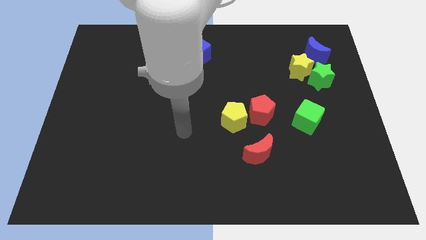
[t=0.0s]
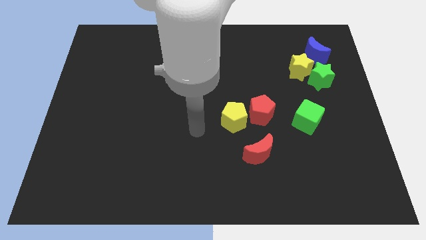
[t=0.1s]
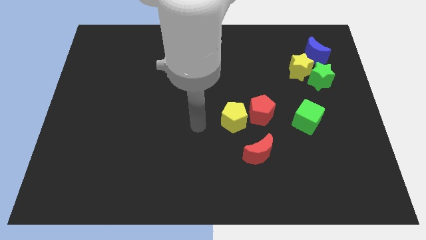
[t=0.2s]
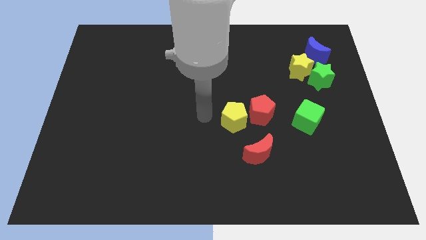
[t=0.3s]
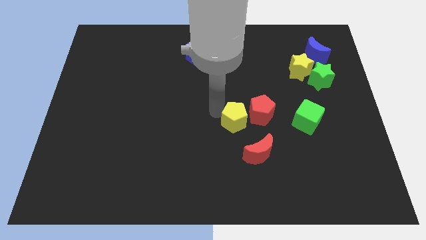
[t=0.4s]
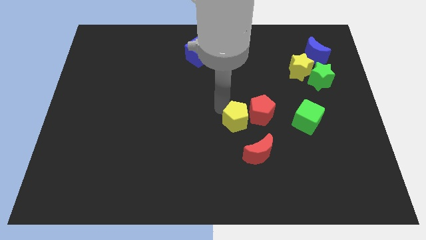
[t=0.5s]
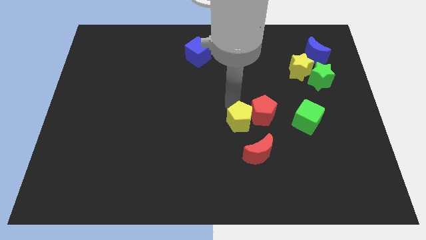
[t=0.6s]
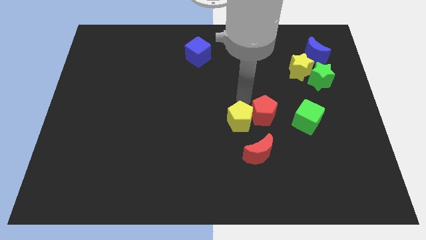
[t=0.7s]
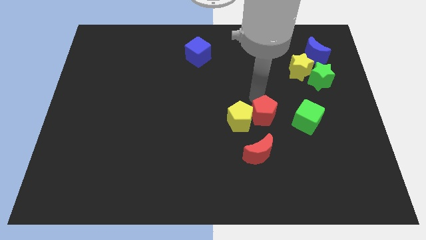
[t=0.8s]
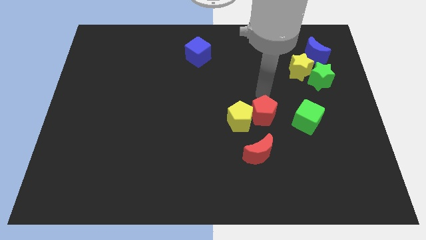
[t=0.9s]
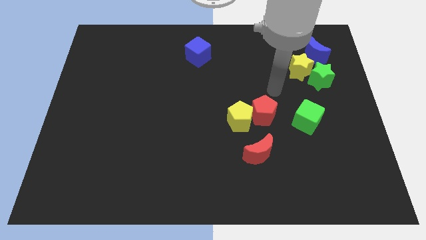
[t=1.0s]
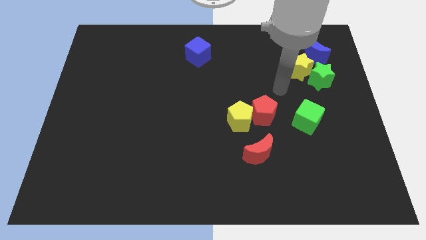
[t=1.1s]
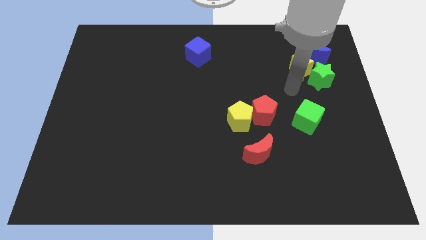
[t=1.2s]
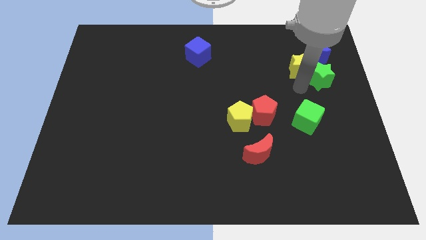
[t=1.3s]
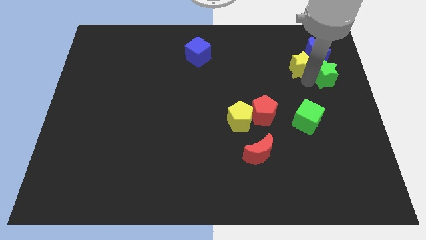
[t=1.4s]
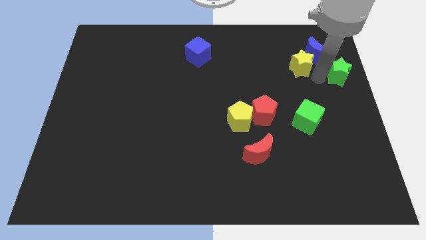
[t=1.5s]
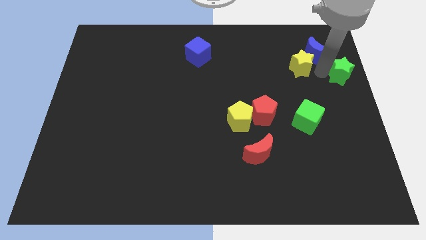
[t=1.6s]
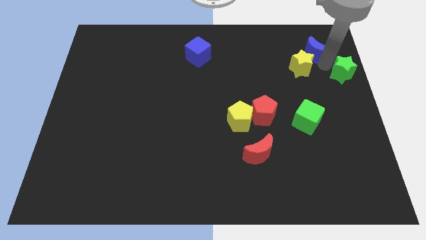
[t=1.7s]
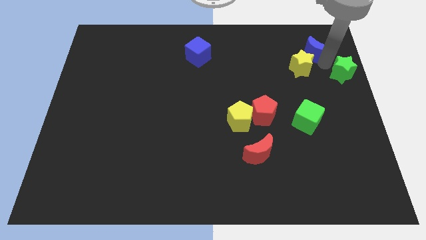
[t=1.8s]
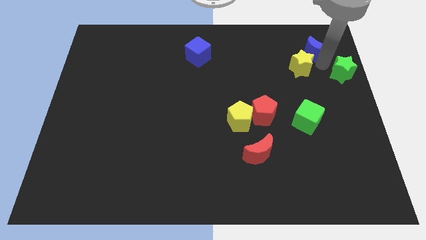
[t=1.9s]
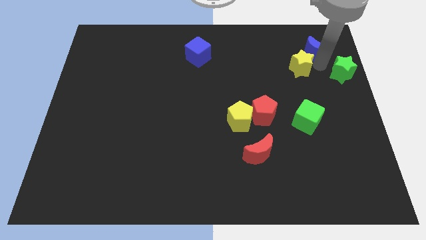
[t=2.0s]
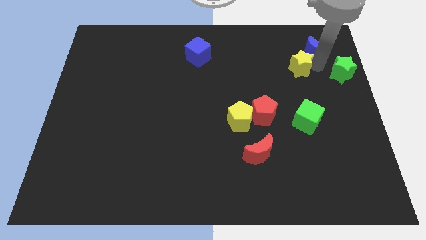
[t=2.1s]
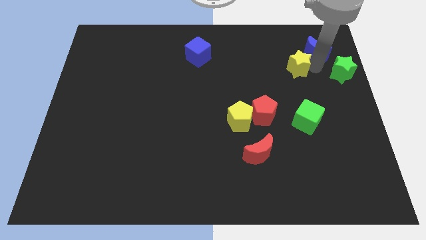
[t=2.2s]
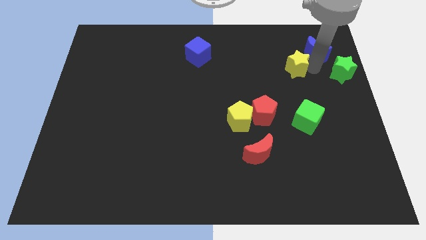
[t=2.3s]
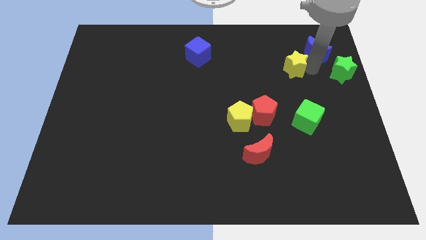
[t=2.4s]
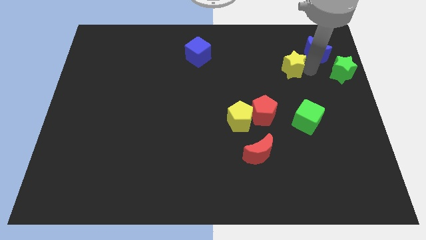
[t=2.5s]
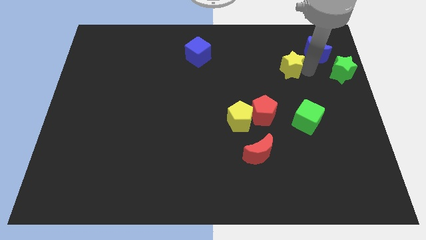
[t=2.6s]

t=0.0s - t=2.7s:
pull the yellow star apart from the green star and blue moon

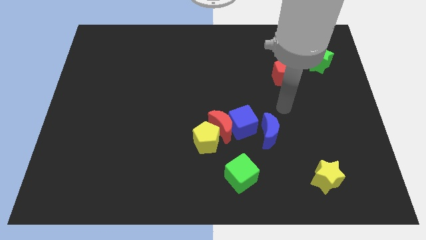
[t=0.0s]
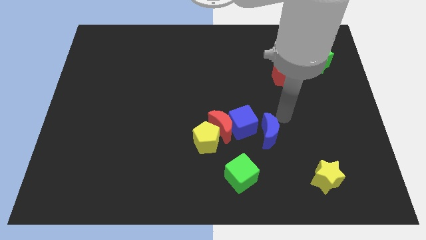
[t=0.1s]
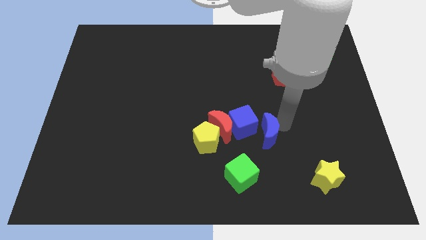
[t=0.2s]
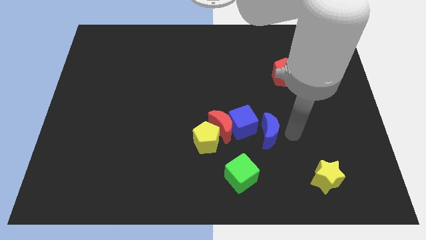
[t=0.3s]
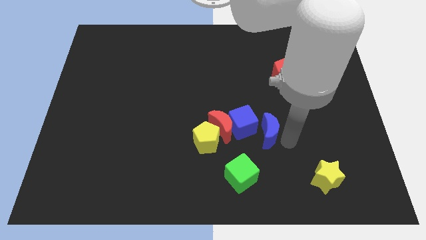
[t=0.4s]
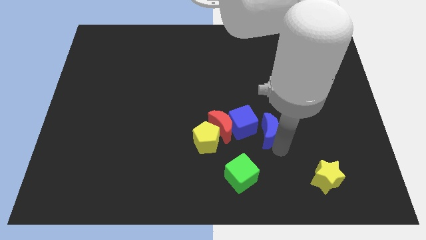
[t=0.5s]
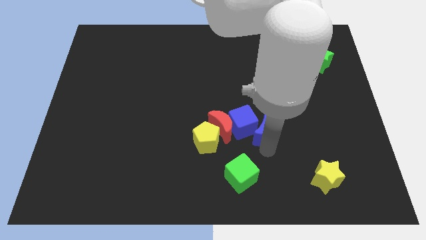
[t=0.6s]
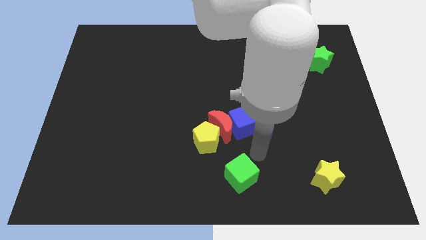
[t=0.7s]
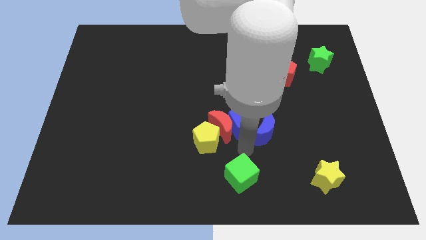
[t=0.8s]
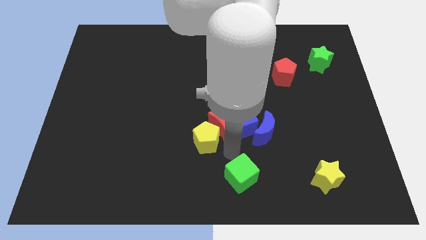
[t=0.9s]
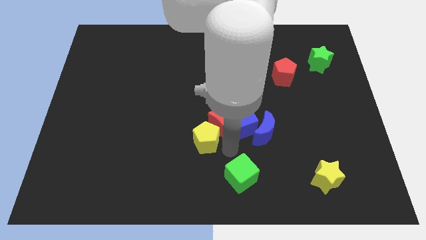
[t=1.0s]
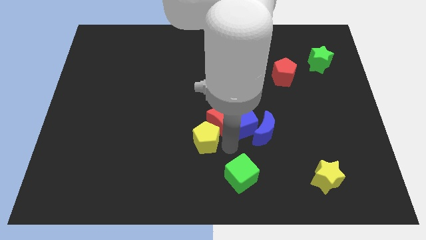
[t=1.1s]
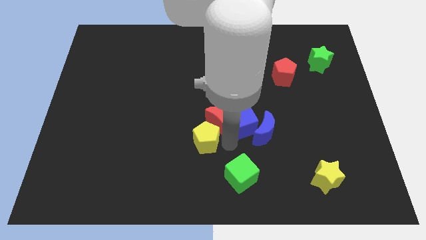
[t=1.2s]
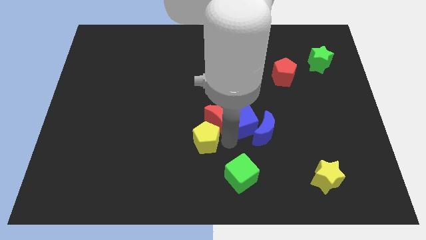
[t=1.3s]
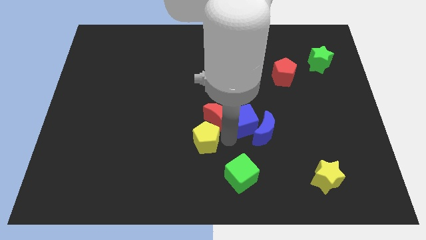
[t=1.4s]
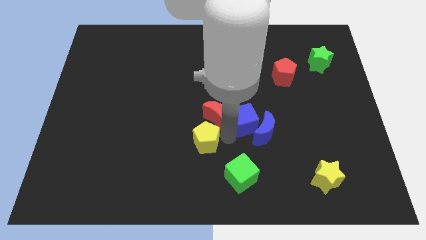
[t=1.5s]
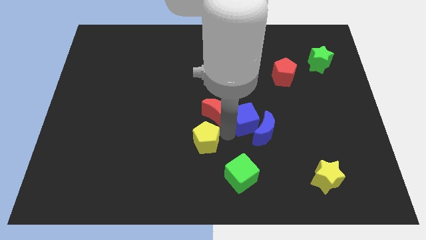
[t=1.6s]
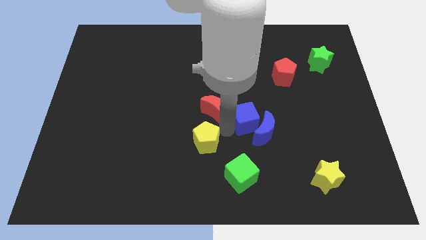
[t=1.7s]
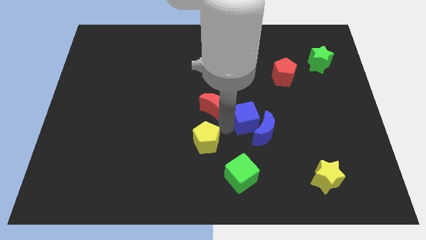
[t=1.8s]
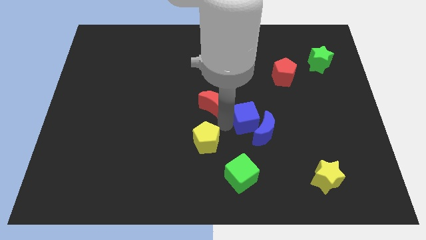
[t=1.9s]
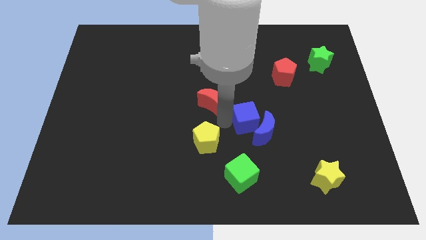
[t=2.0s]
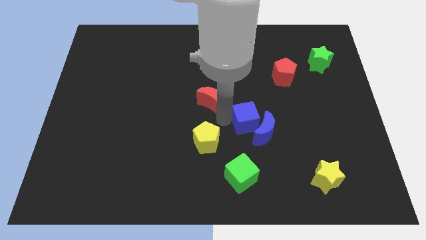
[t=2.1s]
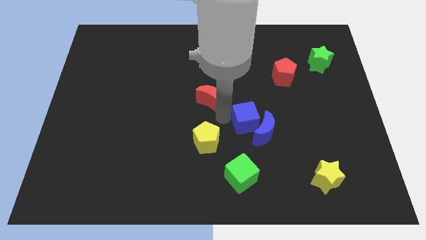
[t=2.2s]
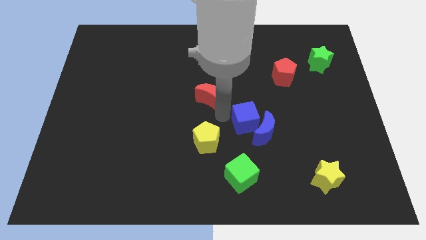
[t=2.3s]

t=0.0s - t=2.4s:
separate the red moon from the blue cube and yellow pentagon

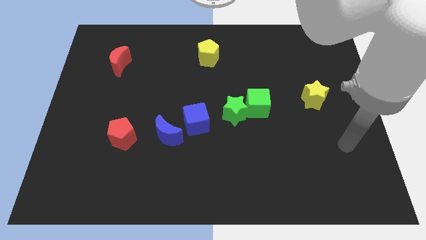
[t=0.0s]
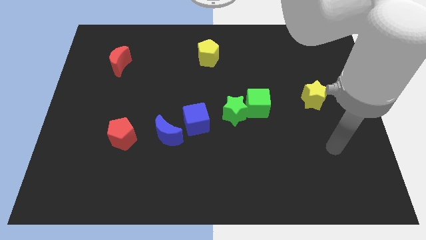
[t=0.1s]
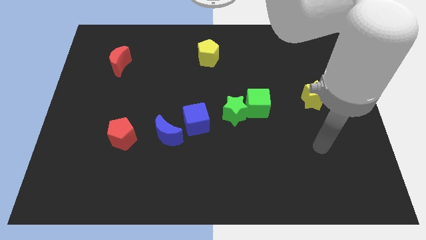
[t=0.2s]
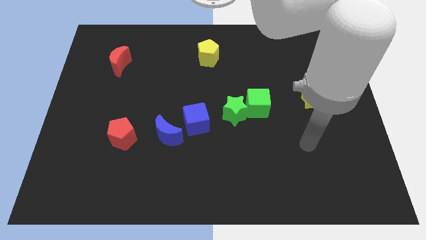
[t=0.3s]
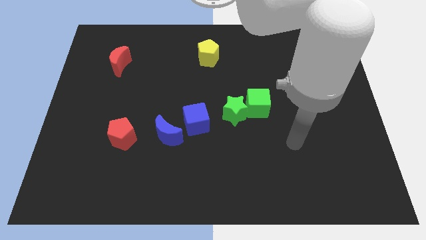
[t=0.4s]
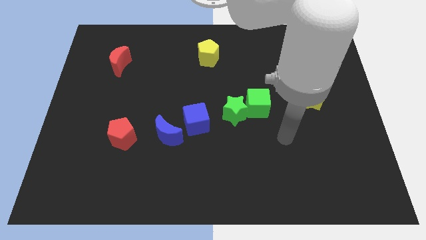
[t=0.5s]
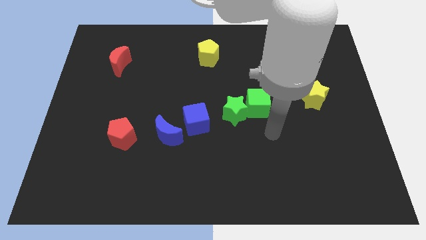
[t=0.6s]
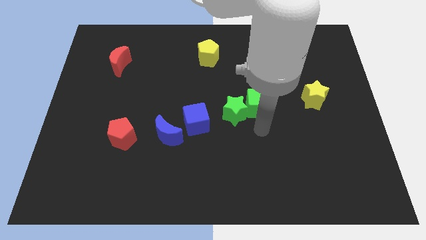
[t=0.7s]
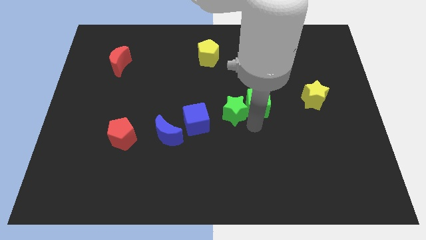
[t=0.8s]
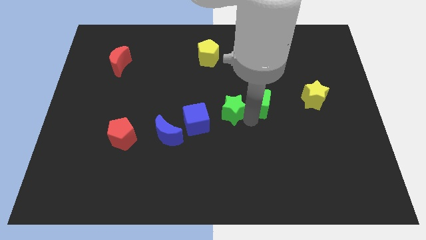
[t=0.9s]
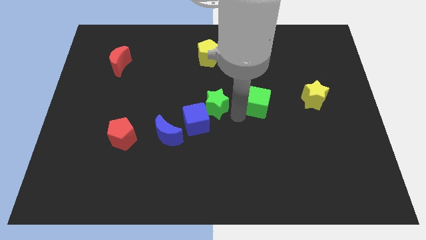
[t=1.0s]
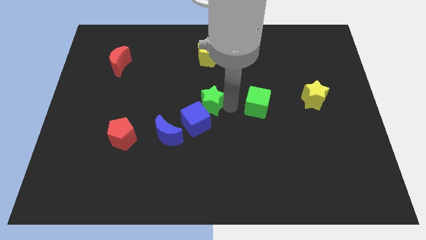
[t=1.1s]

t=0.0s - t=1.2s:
separate the green cube from the green star

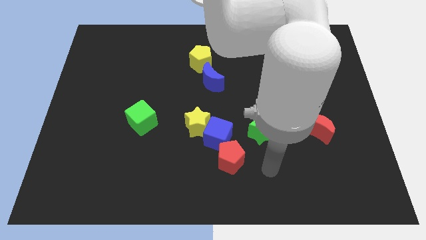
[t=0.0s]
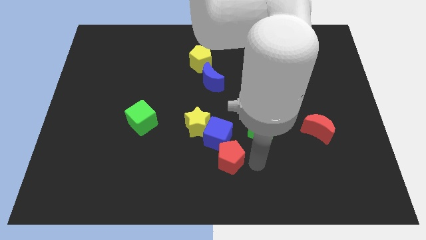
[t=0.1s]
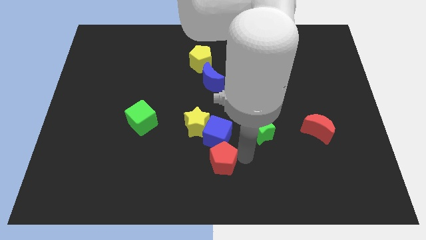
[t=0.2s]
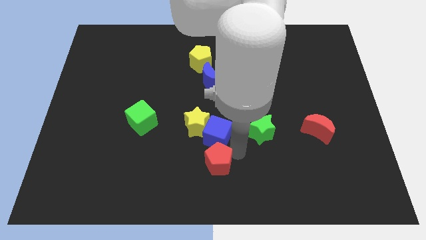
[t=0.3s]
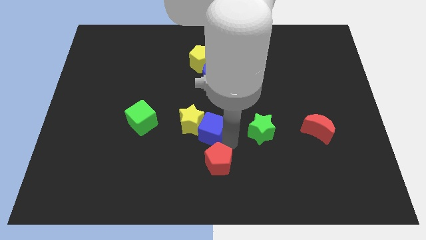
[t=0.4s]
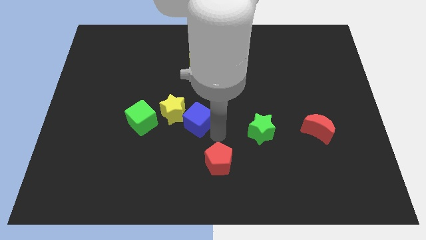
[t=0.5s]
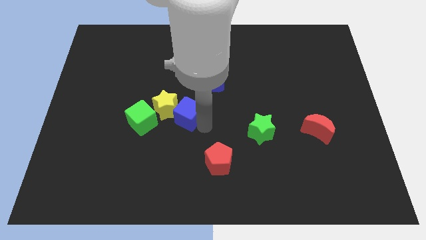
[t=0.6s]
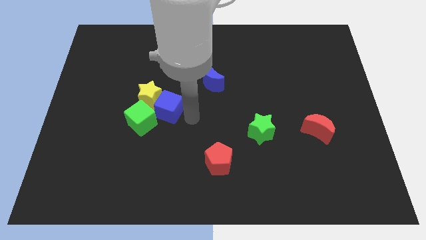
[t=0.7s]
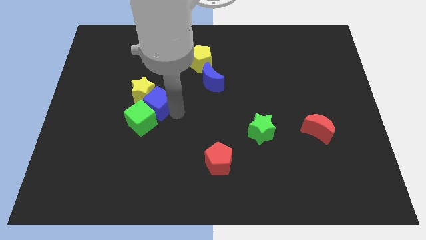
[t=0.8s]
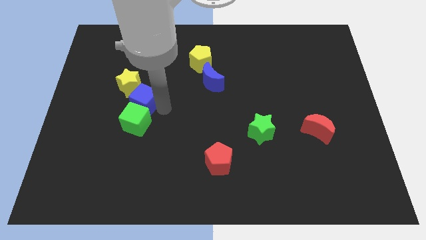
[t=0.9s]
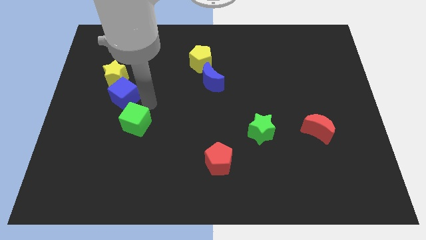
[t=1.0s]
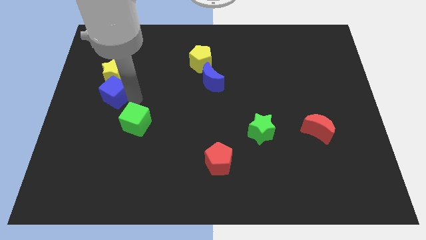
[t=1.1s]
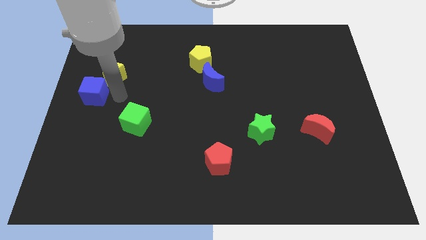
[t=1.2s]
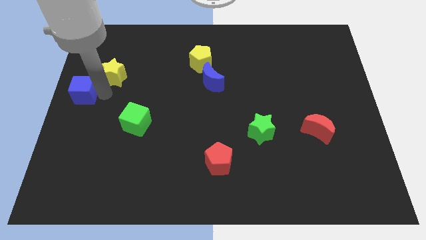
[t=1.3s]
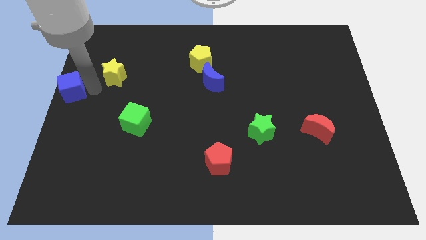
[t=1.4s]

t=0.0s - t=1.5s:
separate the yellow star from the blue cube

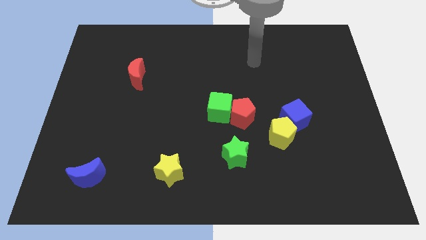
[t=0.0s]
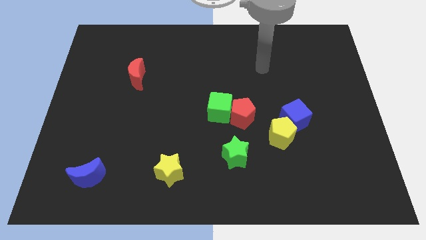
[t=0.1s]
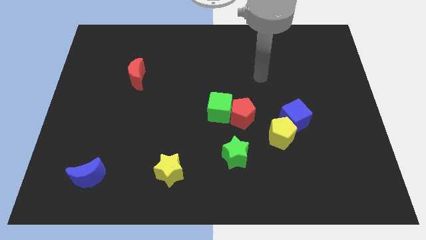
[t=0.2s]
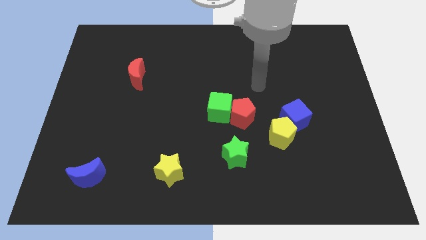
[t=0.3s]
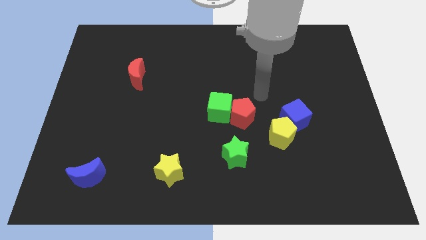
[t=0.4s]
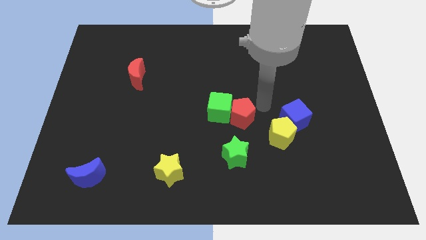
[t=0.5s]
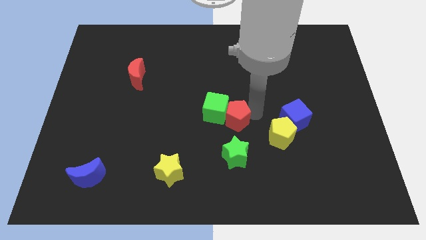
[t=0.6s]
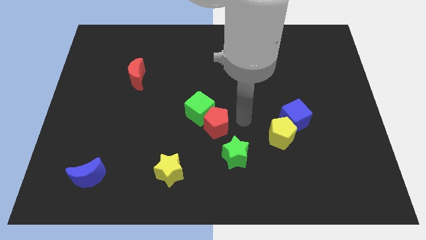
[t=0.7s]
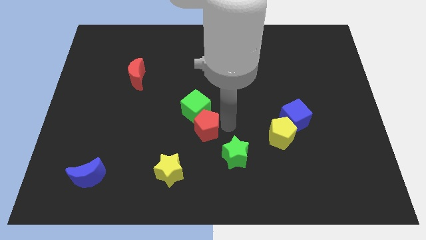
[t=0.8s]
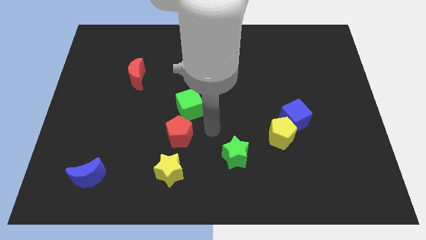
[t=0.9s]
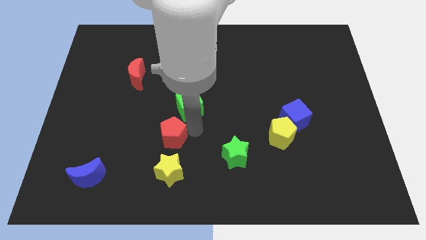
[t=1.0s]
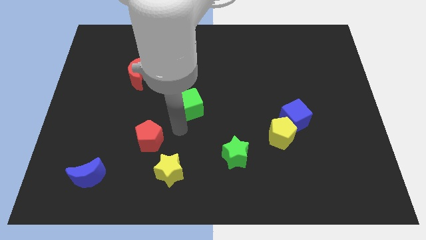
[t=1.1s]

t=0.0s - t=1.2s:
pull the green cube apart from the red pentagon

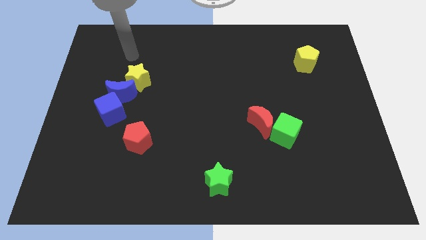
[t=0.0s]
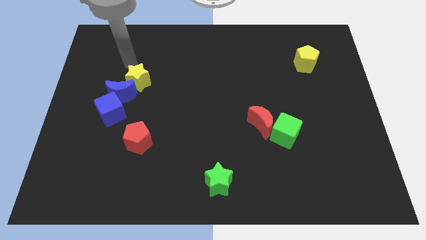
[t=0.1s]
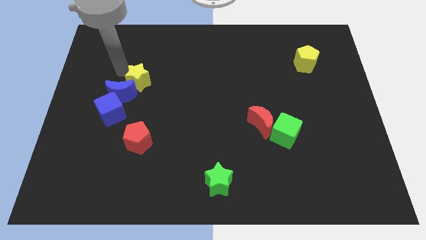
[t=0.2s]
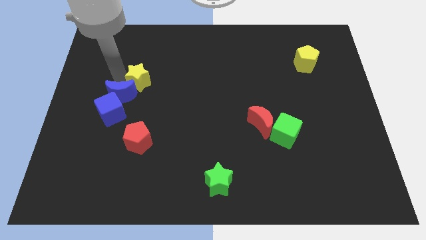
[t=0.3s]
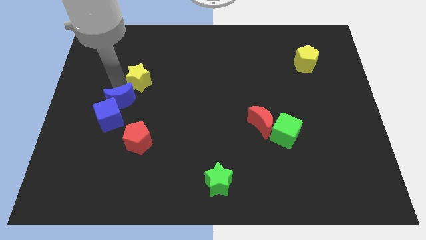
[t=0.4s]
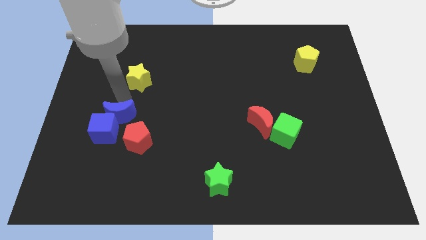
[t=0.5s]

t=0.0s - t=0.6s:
separate the yellow star from the blue moon
